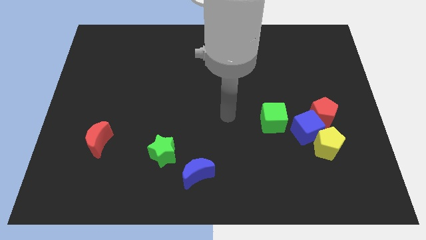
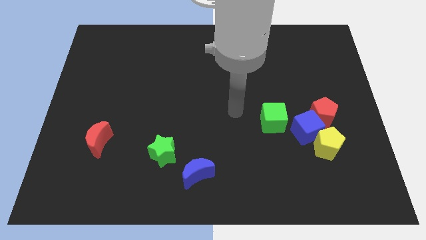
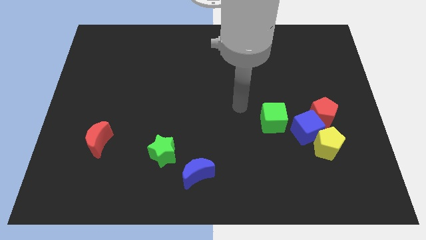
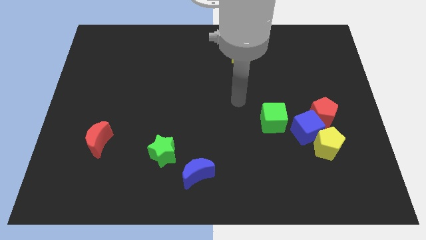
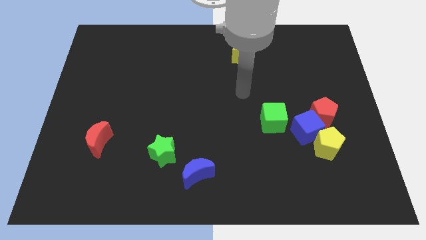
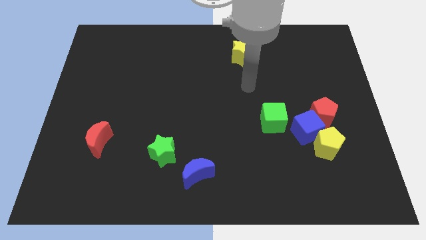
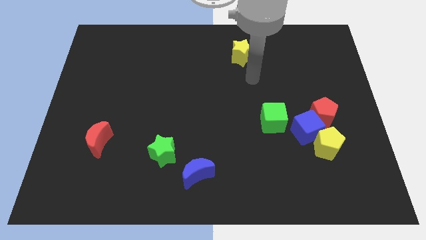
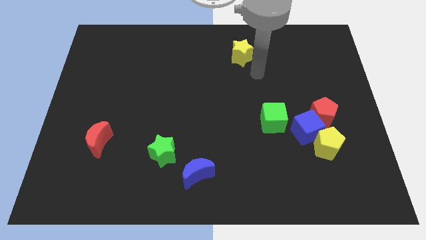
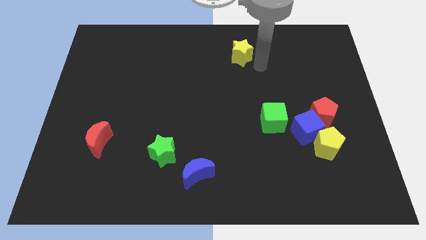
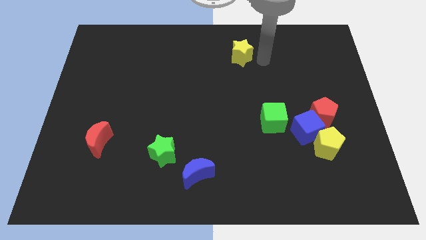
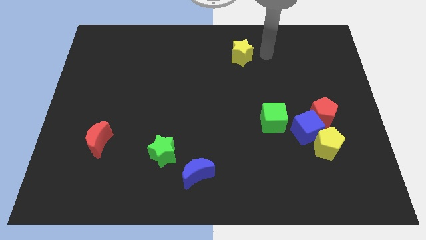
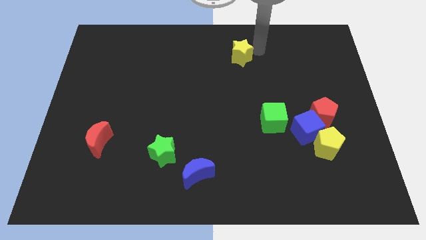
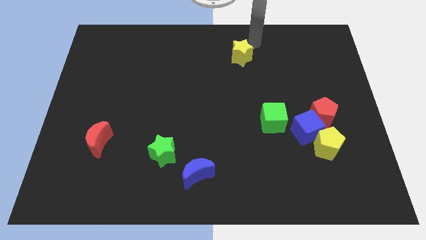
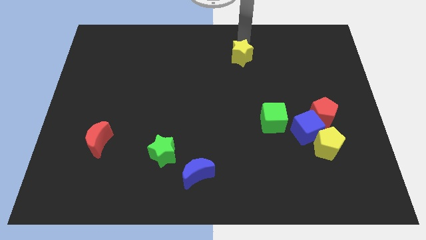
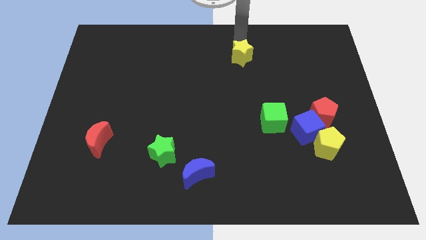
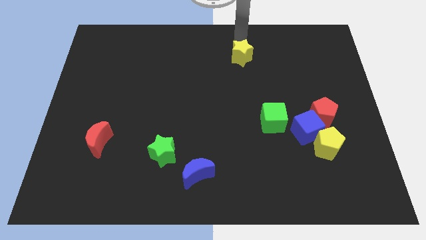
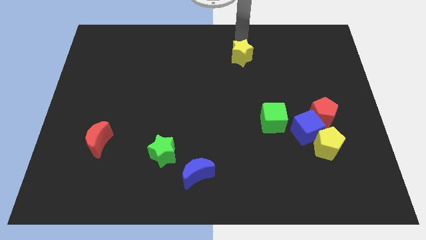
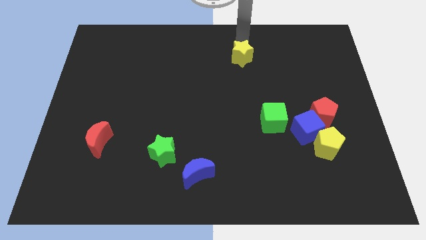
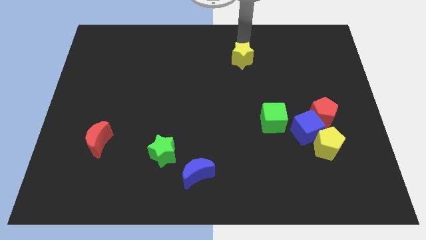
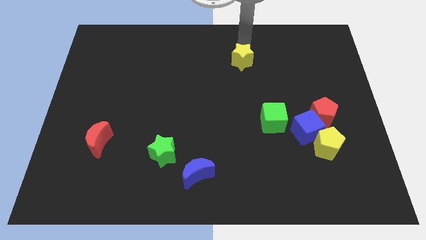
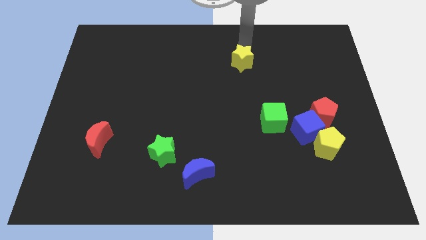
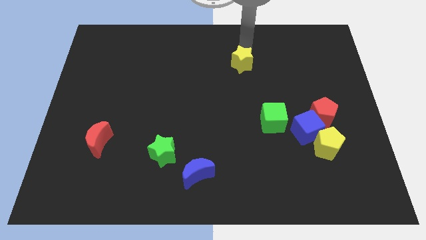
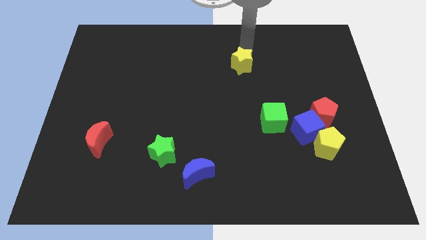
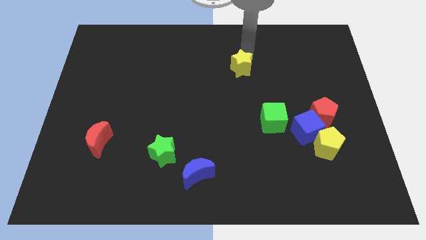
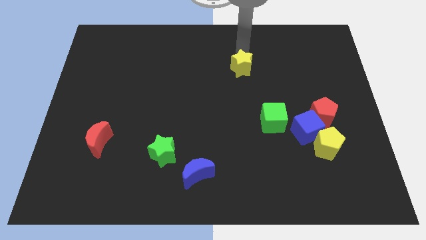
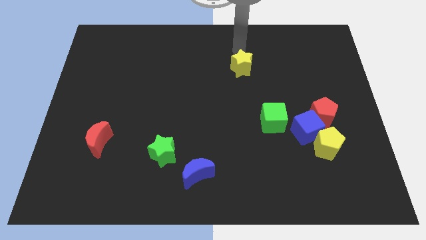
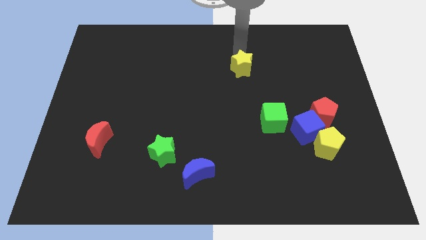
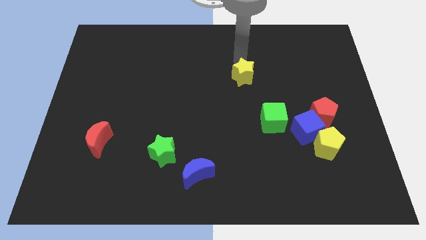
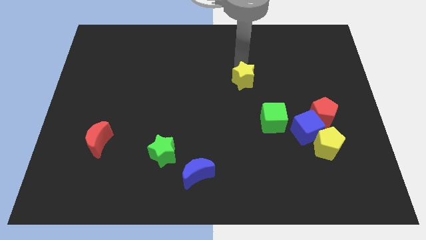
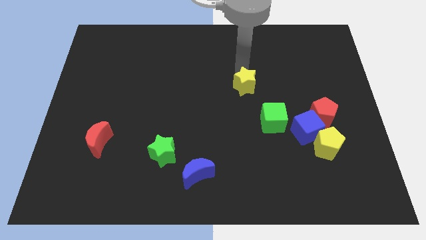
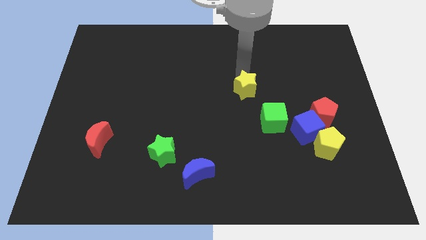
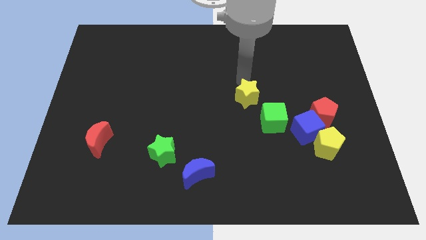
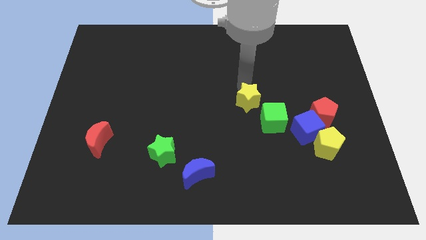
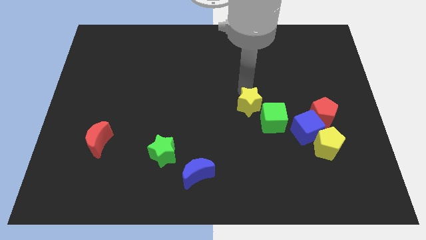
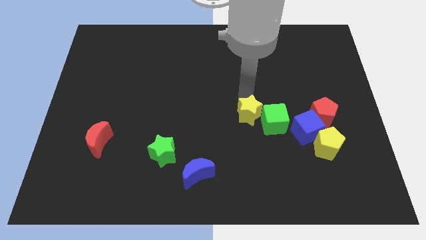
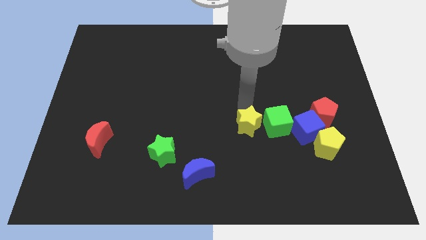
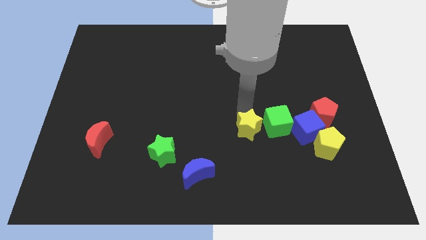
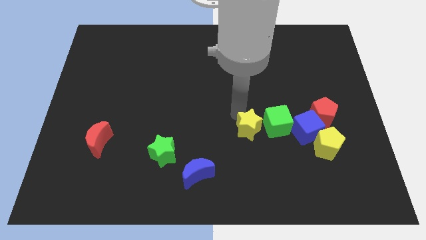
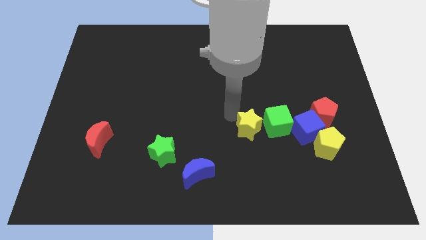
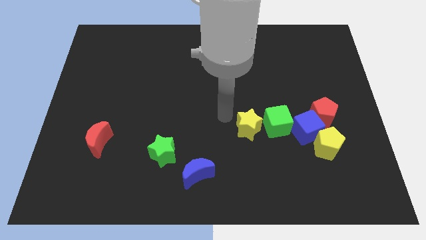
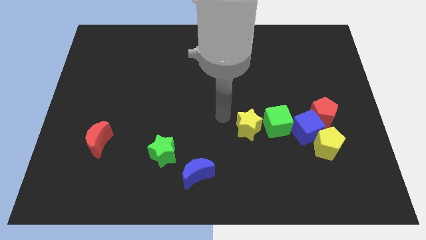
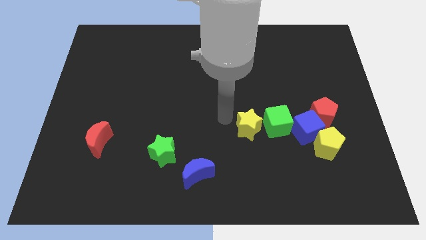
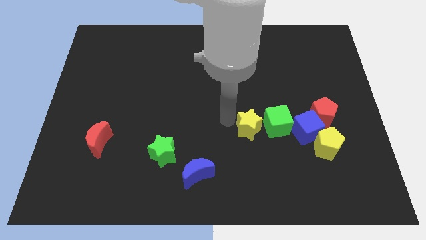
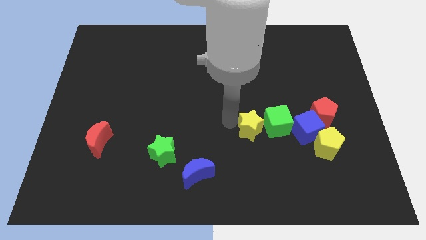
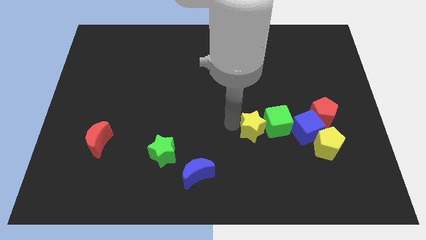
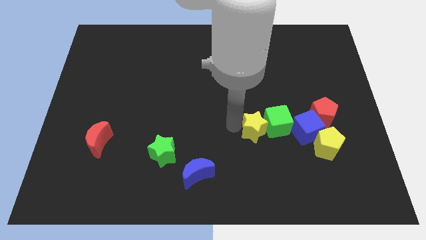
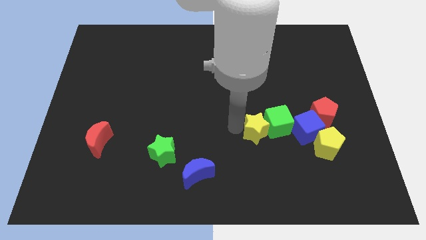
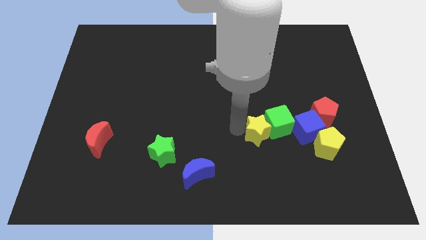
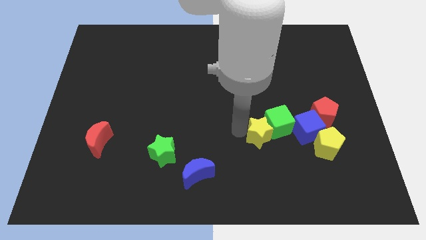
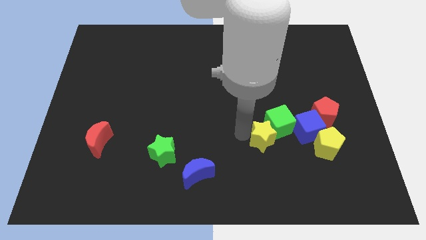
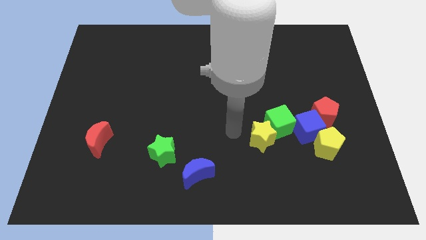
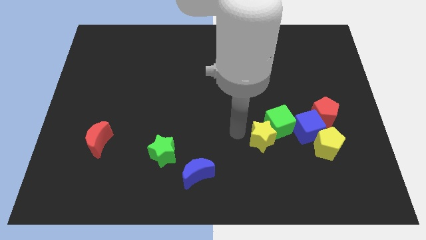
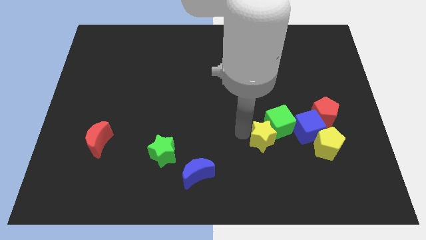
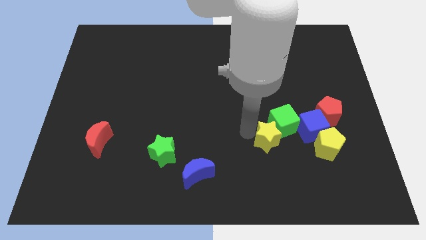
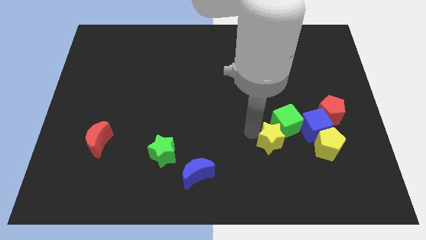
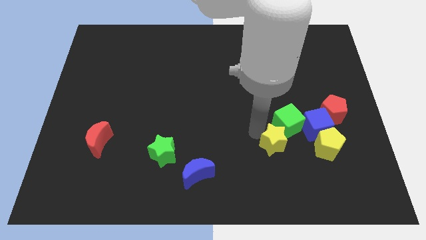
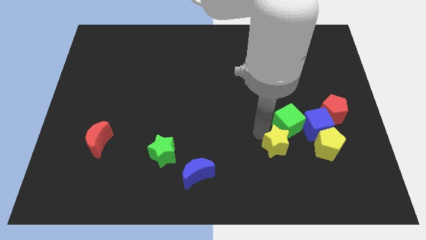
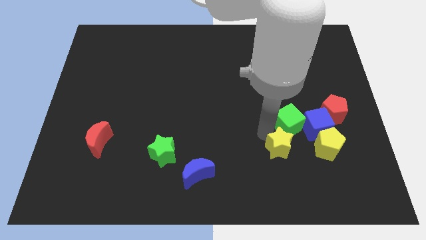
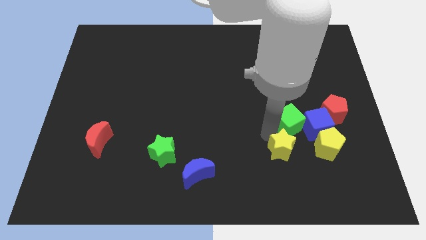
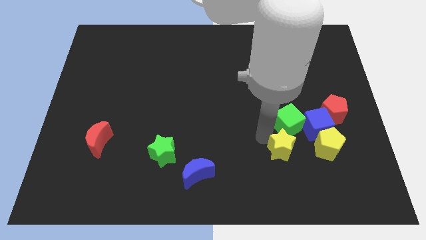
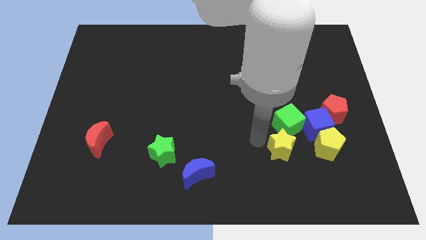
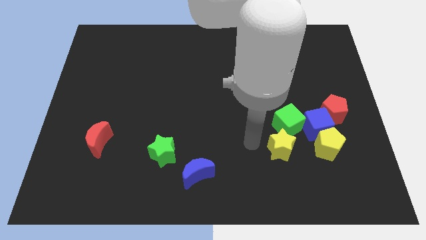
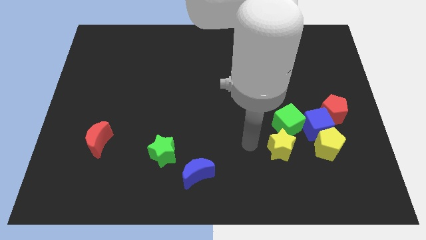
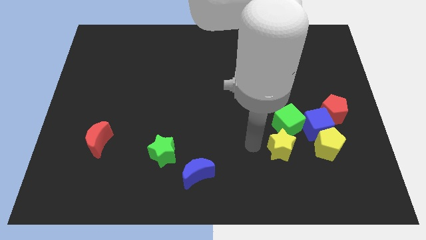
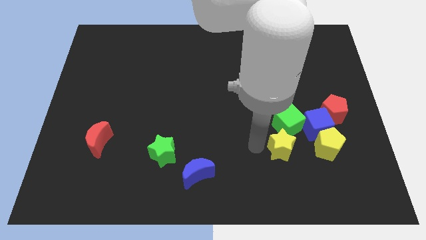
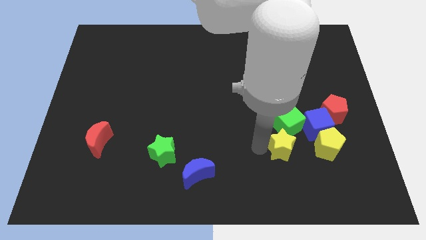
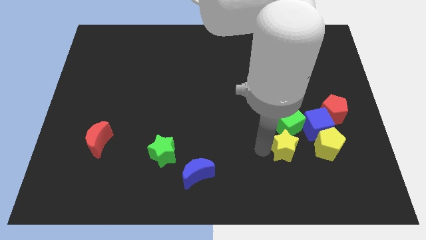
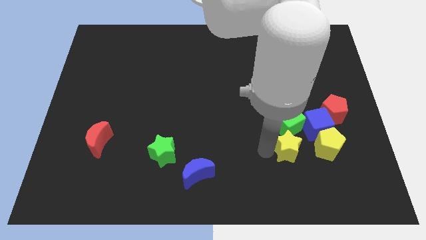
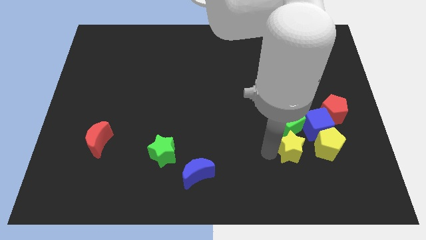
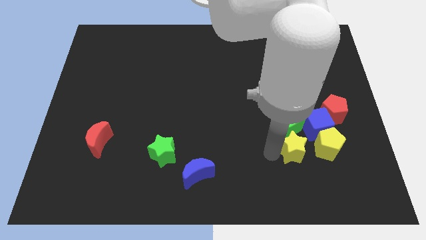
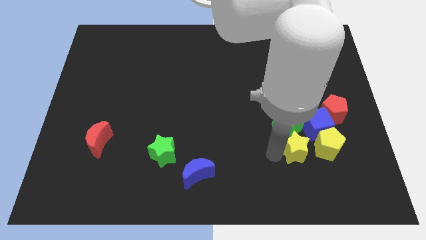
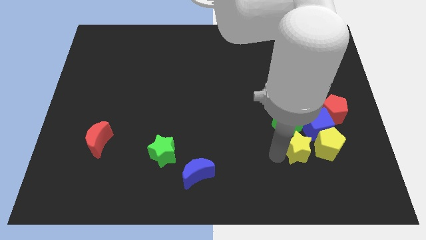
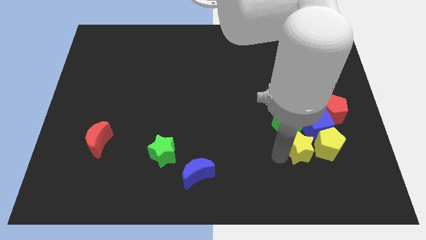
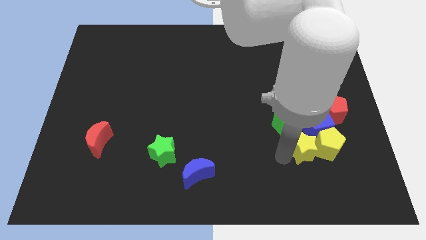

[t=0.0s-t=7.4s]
move the yellow star close to the yellow pentagon
